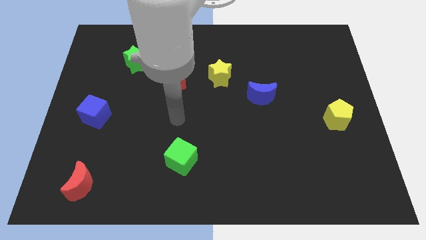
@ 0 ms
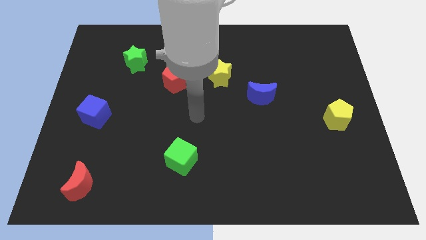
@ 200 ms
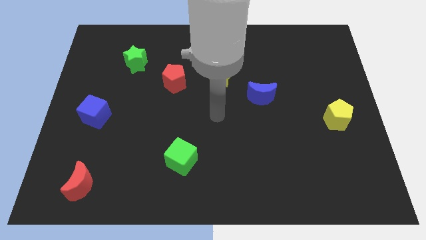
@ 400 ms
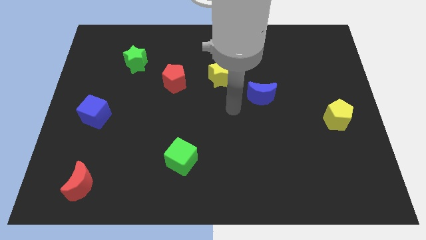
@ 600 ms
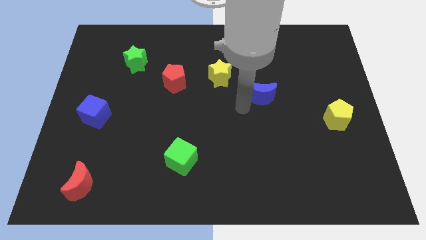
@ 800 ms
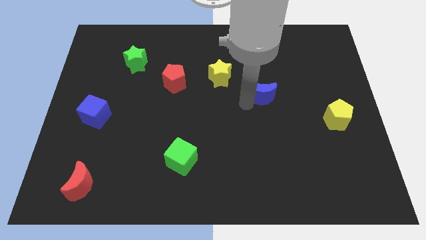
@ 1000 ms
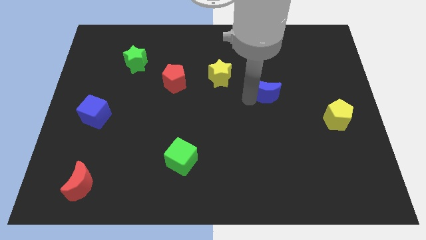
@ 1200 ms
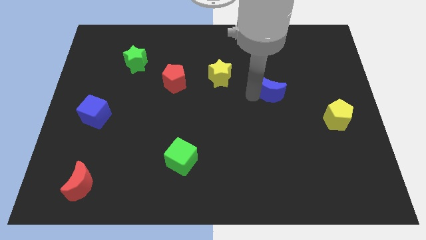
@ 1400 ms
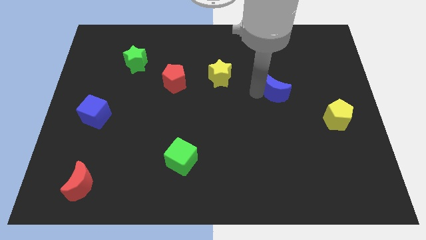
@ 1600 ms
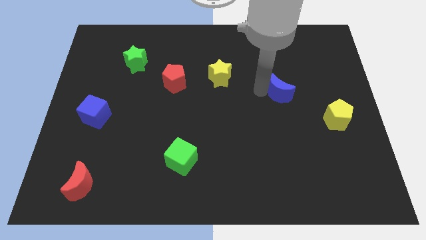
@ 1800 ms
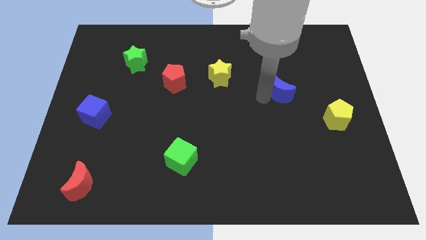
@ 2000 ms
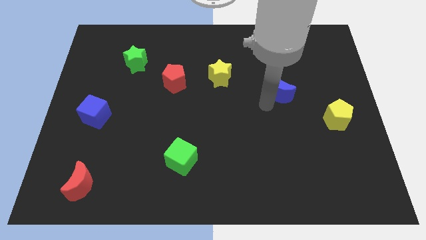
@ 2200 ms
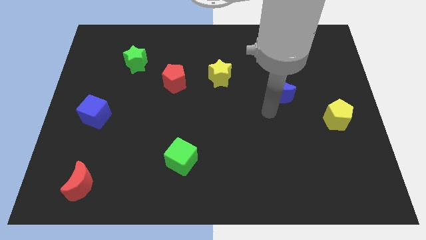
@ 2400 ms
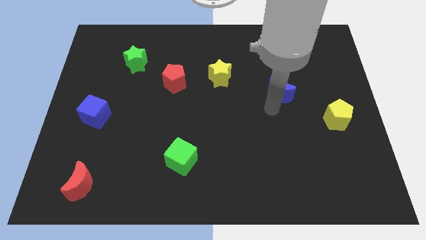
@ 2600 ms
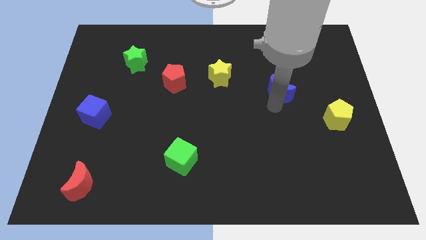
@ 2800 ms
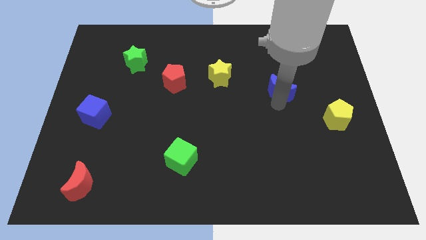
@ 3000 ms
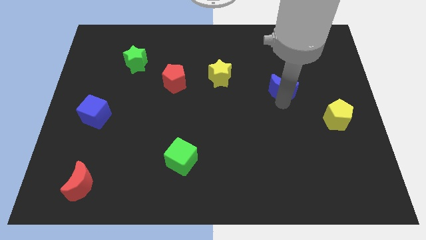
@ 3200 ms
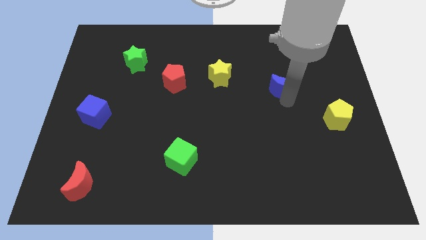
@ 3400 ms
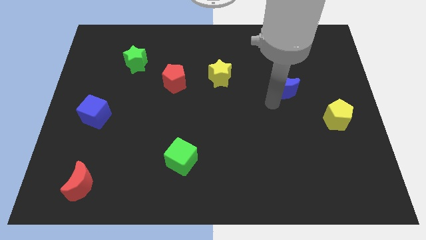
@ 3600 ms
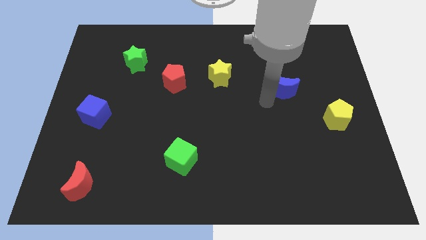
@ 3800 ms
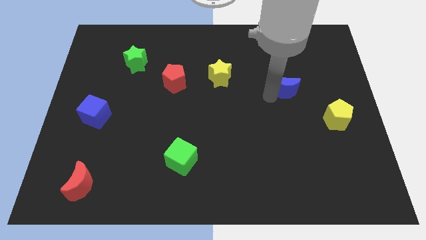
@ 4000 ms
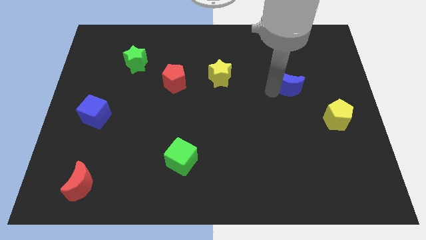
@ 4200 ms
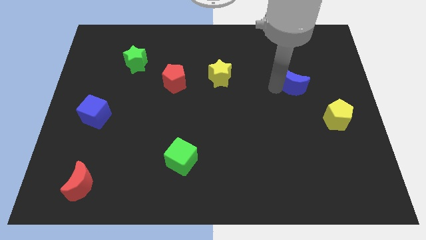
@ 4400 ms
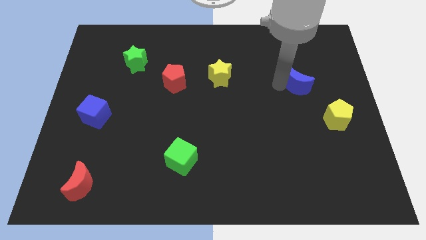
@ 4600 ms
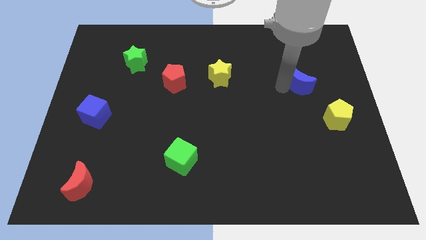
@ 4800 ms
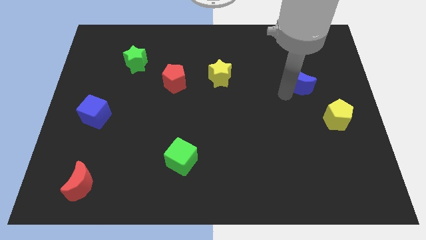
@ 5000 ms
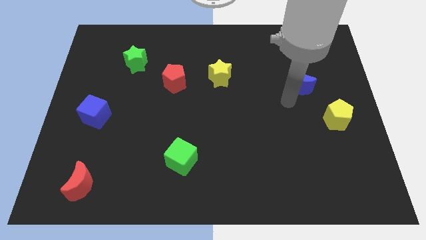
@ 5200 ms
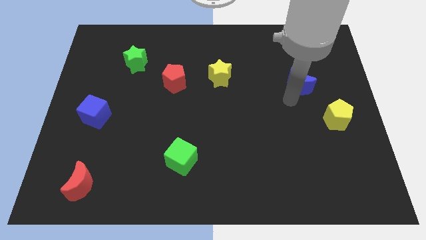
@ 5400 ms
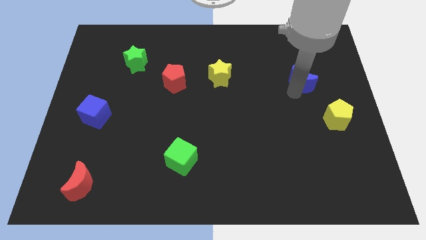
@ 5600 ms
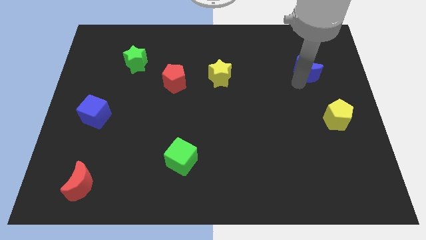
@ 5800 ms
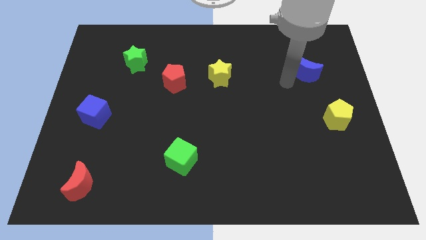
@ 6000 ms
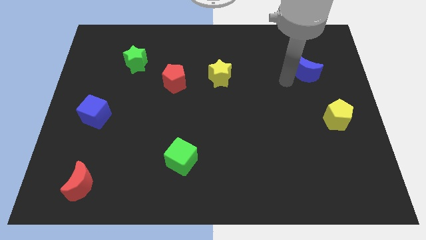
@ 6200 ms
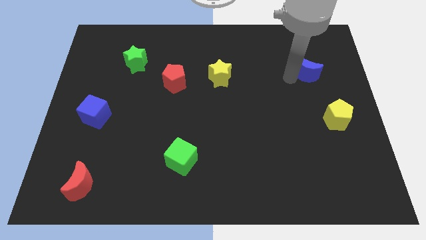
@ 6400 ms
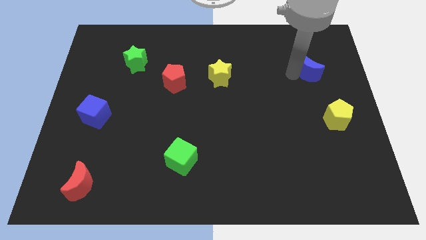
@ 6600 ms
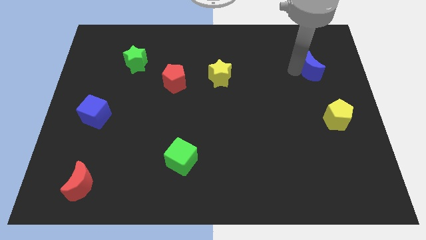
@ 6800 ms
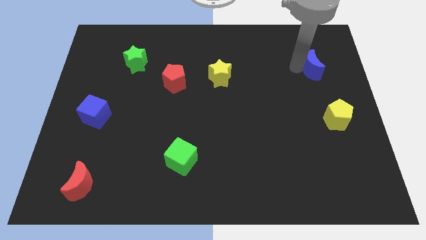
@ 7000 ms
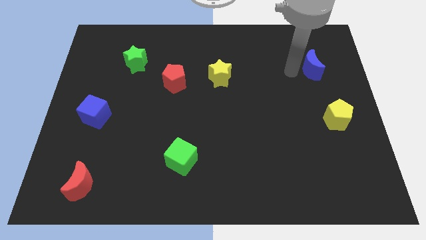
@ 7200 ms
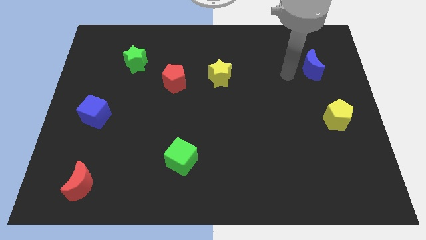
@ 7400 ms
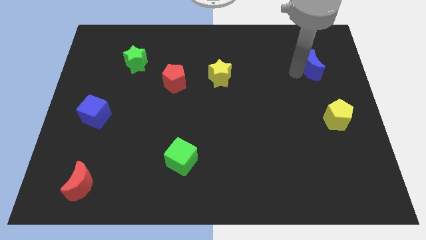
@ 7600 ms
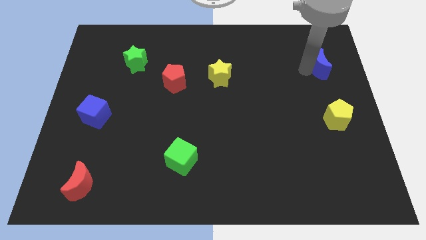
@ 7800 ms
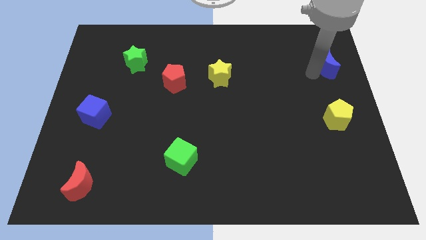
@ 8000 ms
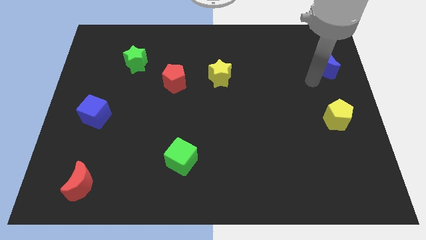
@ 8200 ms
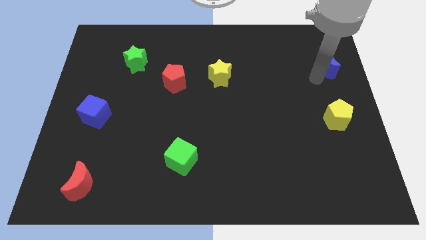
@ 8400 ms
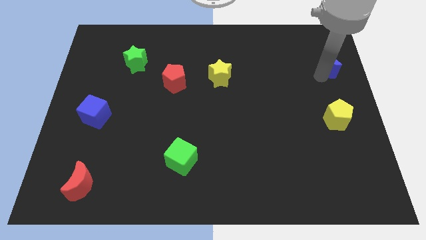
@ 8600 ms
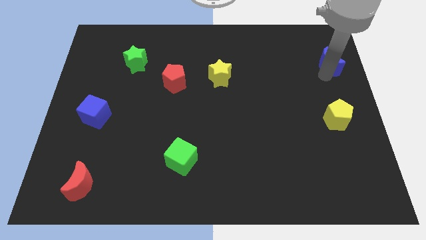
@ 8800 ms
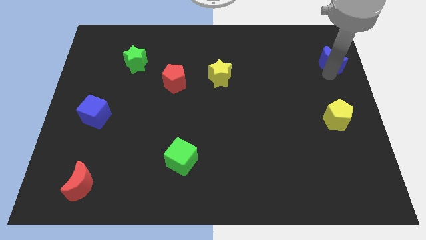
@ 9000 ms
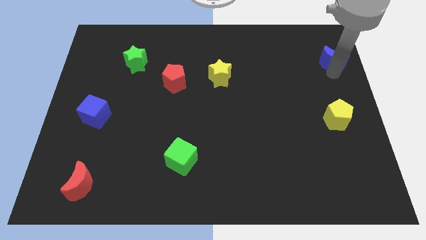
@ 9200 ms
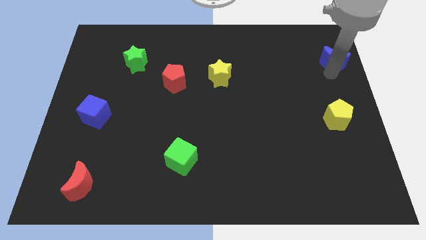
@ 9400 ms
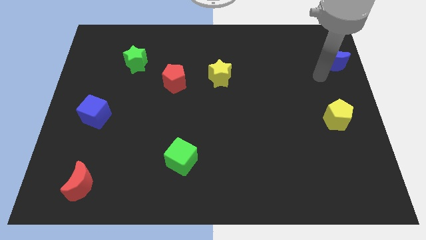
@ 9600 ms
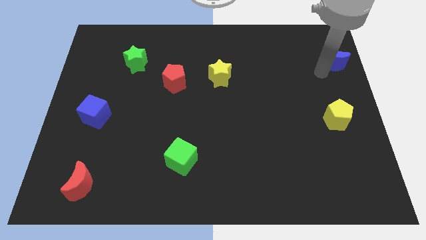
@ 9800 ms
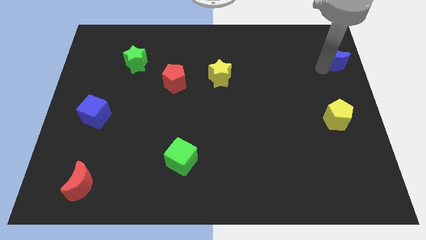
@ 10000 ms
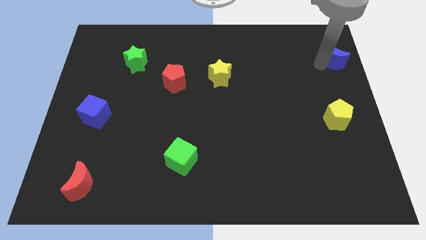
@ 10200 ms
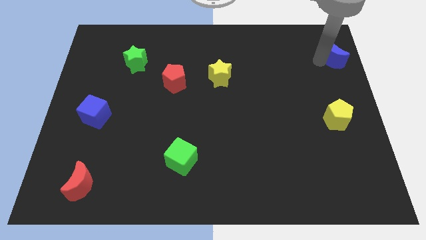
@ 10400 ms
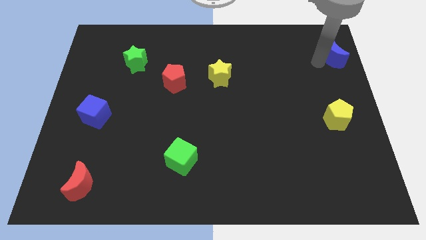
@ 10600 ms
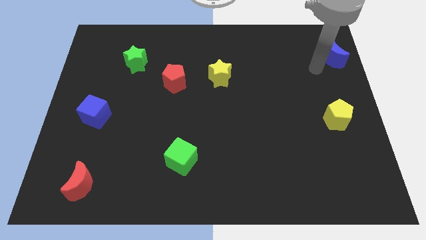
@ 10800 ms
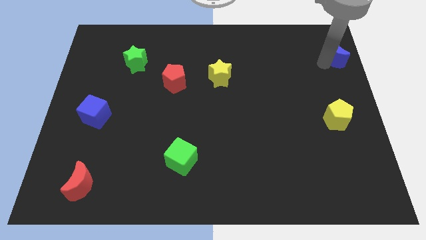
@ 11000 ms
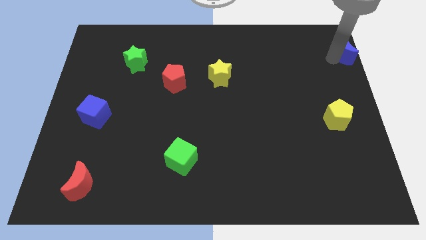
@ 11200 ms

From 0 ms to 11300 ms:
push the blue moon to the top right corner
